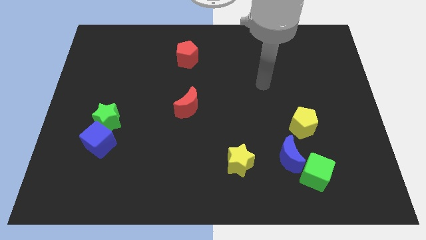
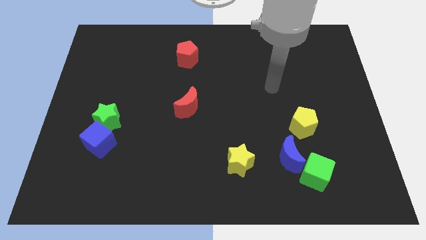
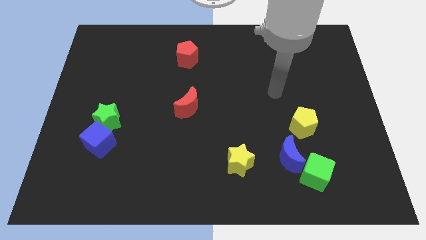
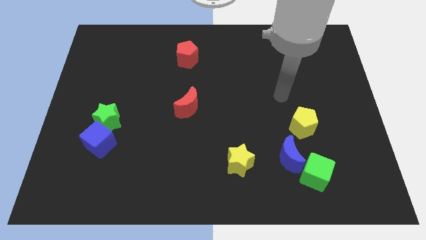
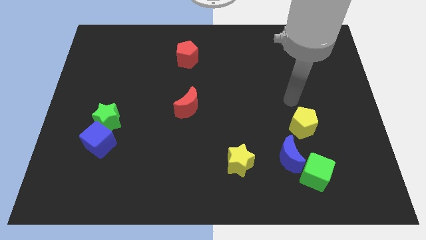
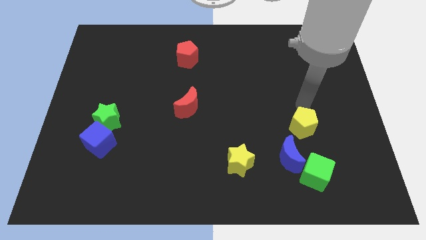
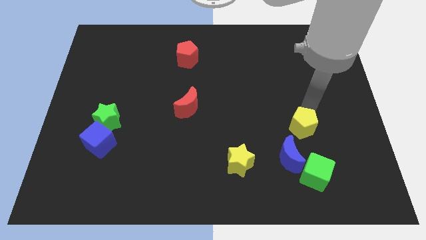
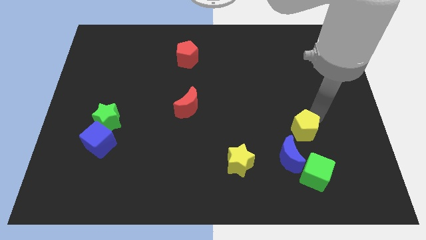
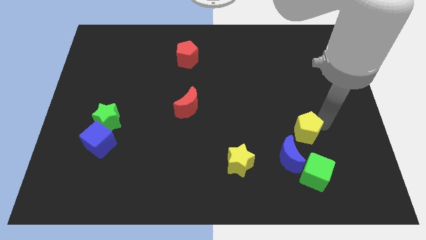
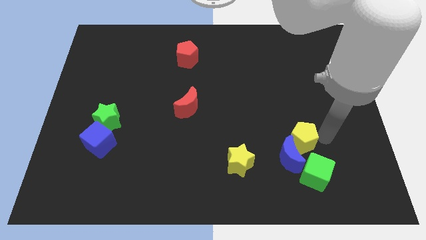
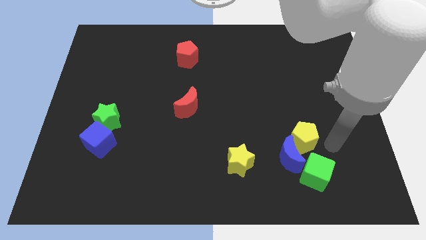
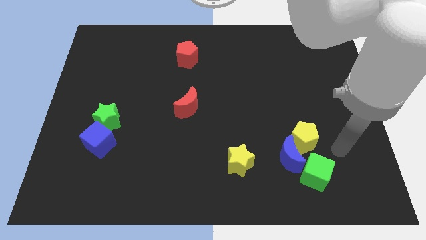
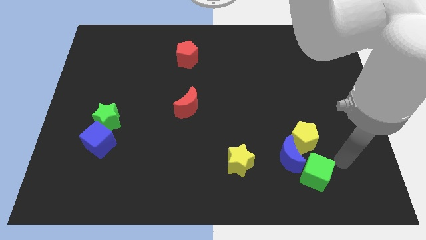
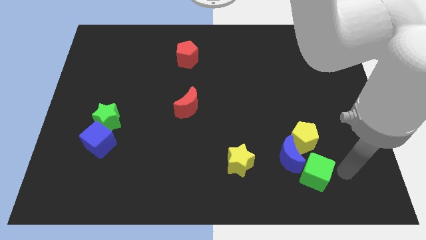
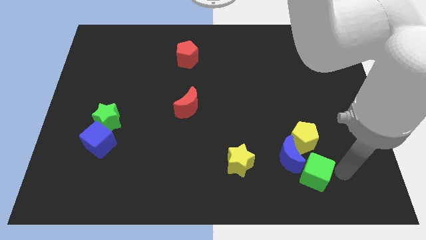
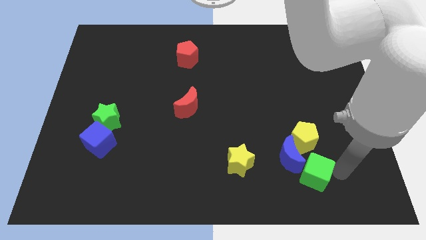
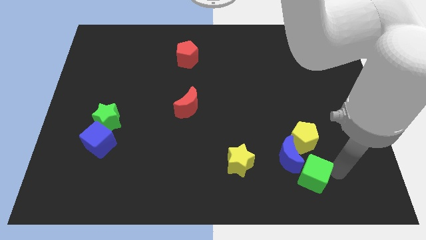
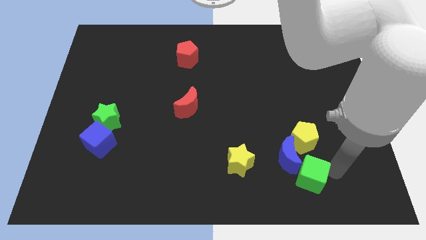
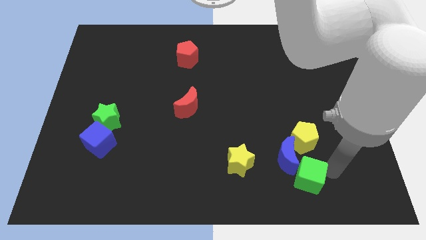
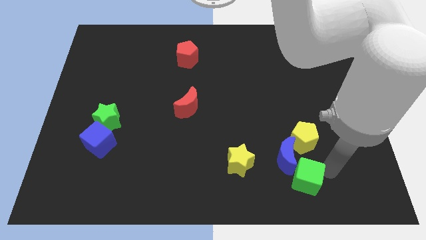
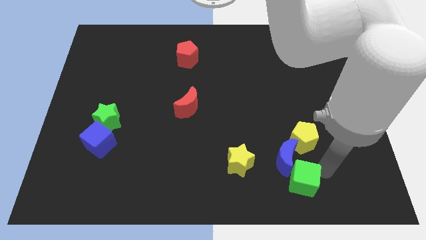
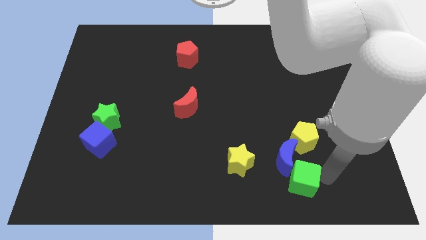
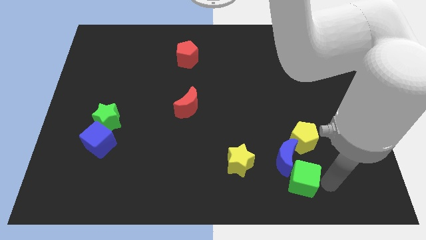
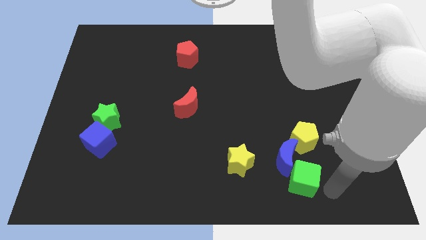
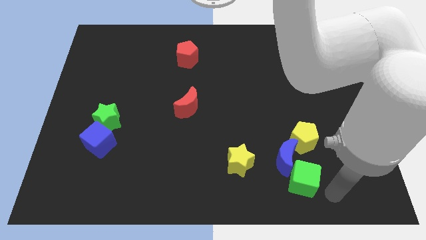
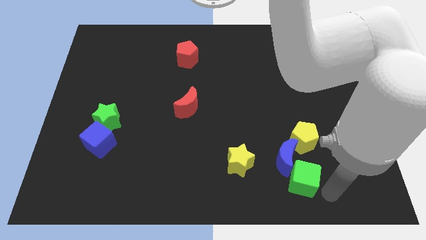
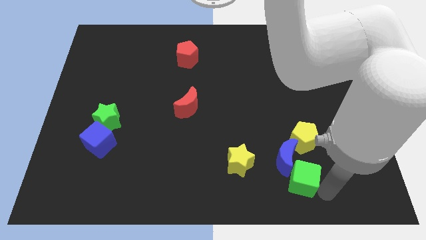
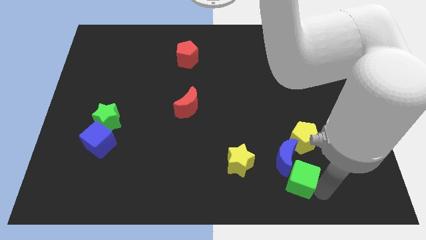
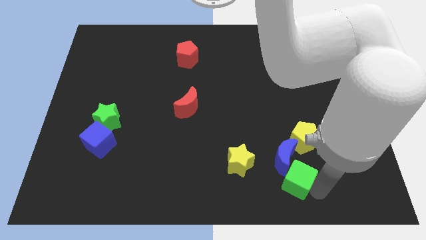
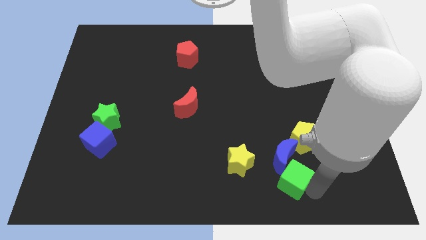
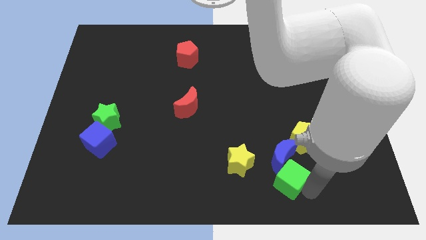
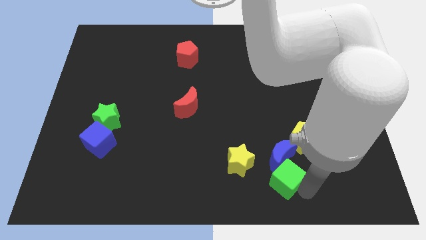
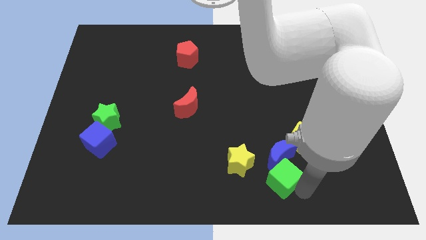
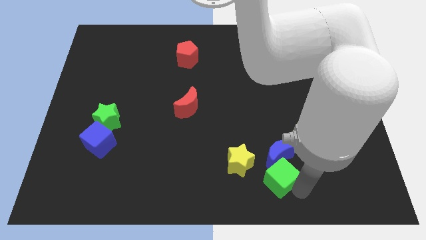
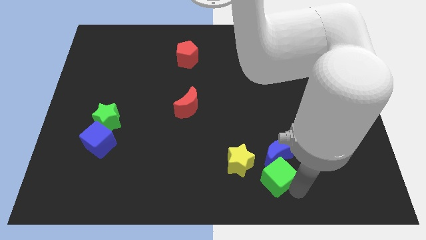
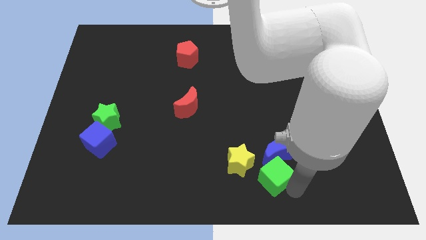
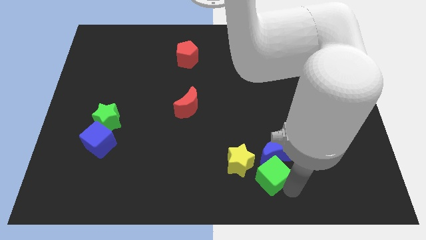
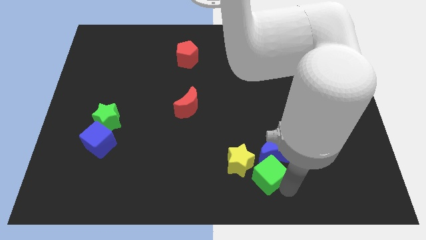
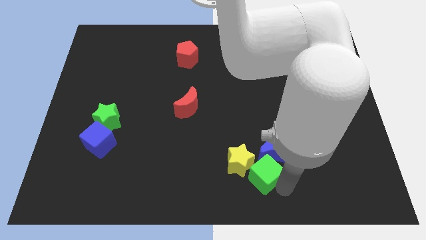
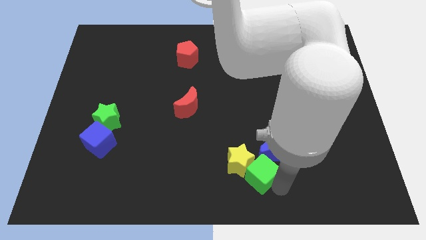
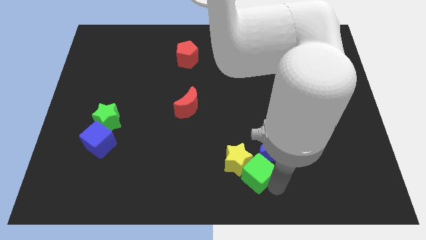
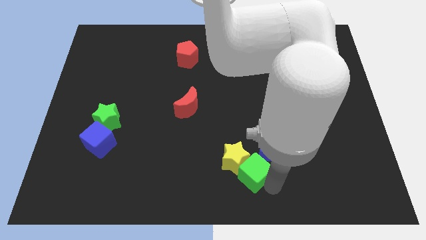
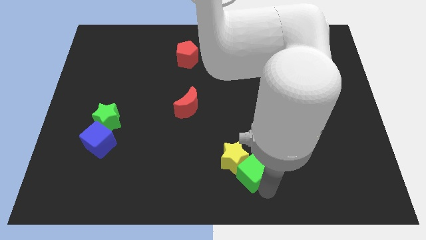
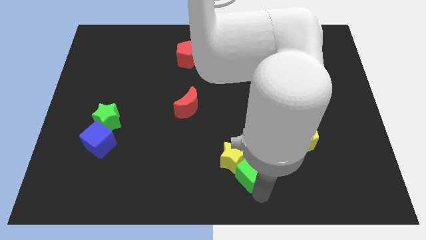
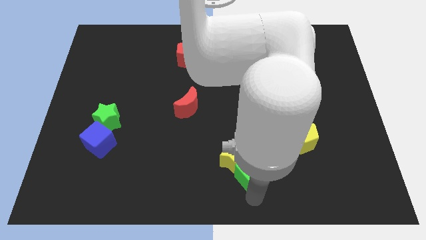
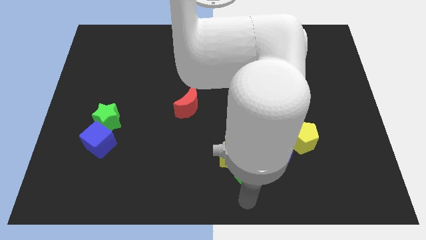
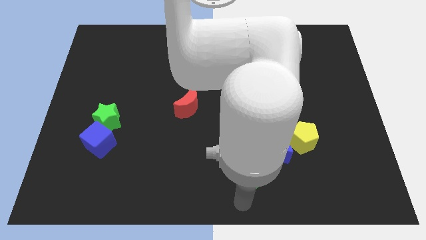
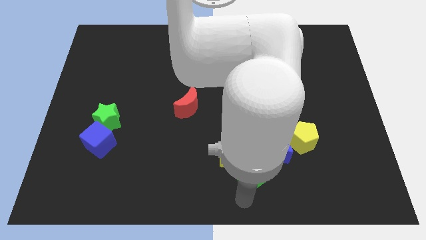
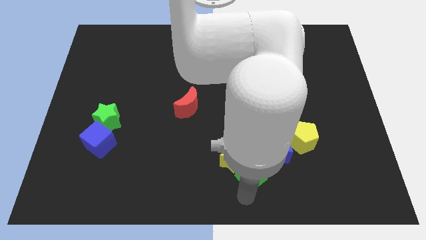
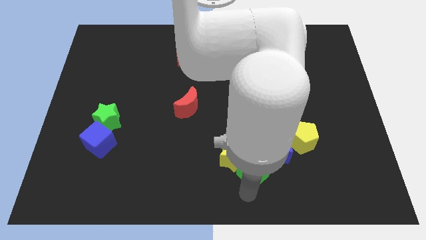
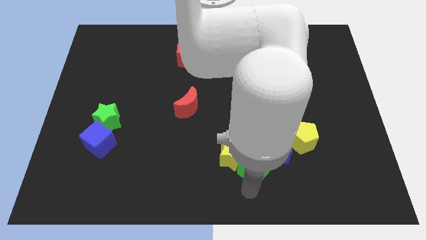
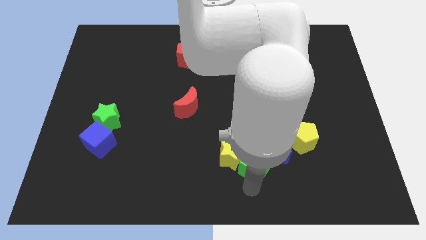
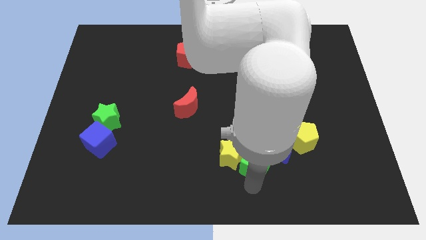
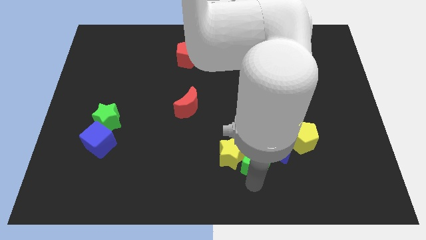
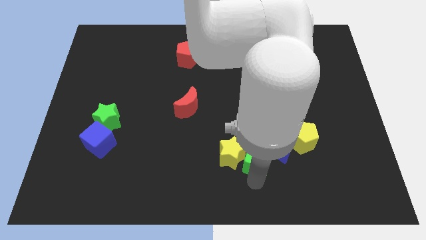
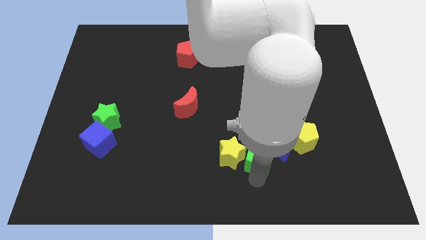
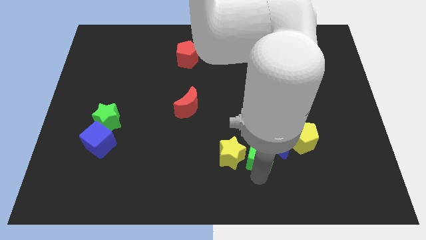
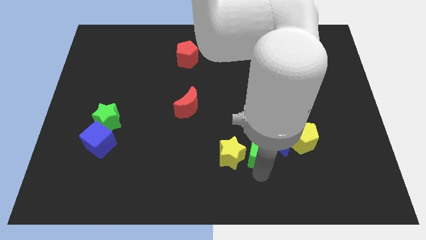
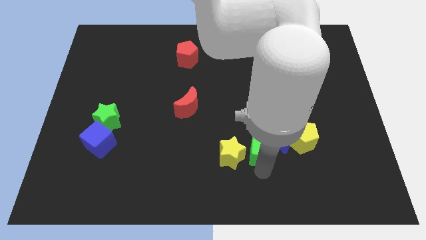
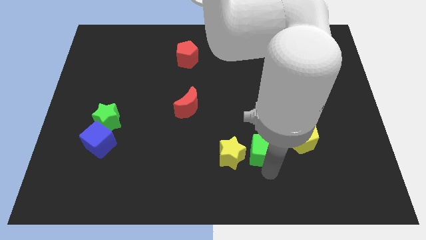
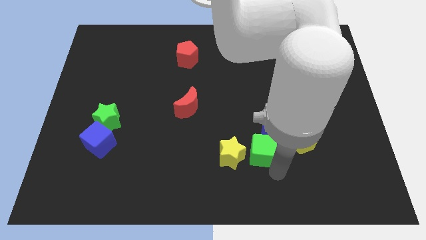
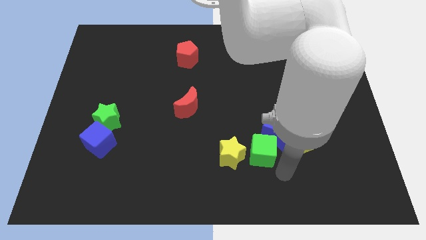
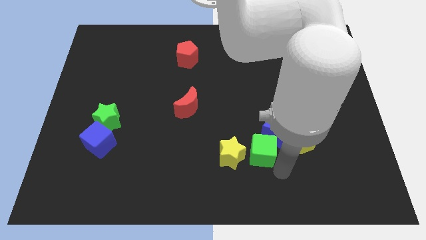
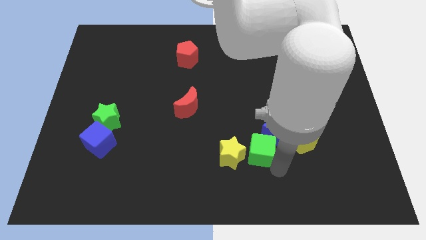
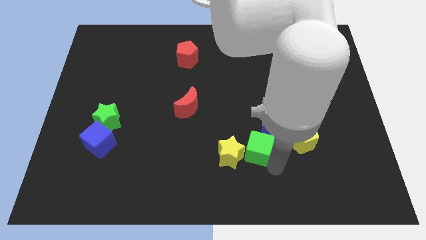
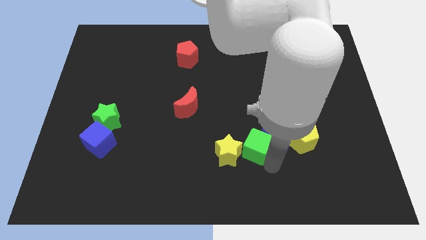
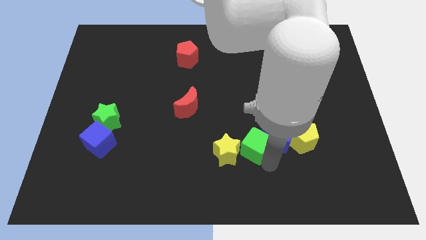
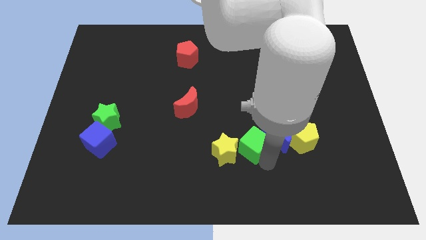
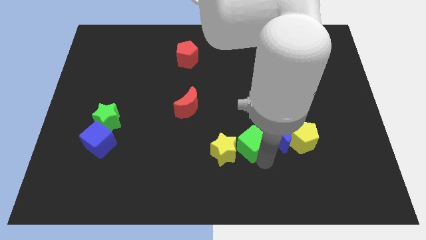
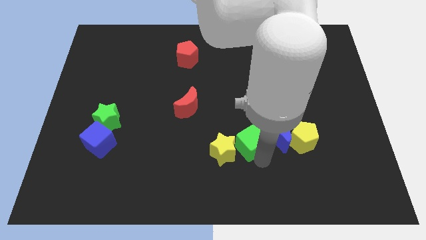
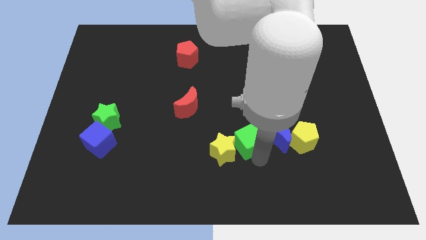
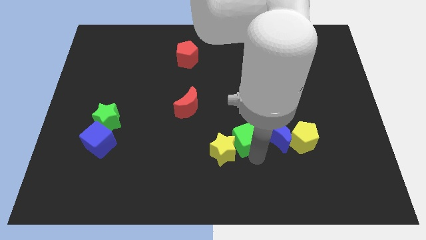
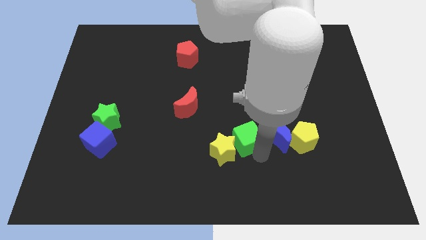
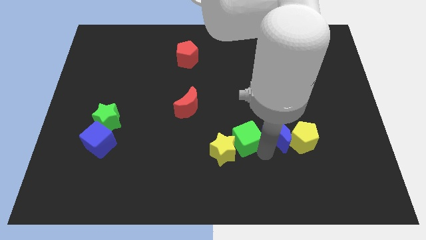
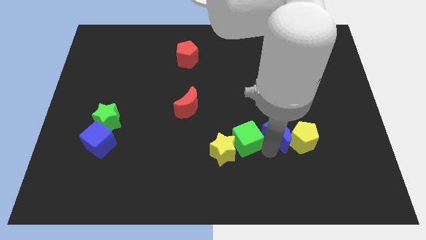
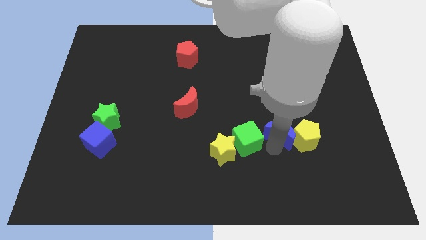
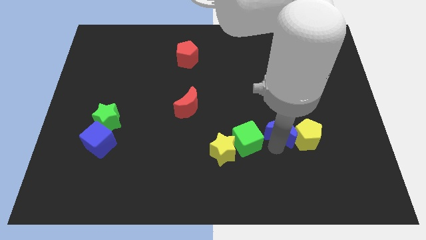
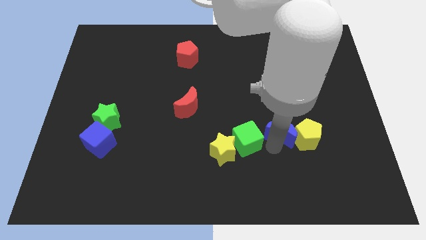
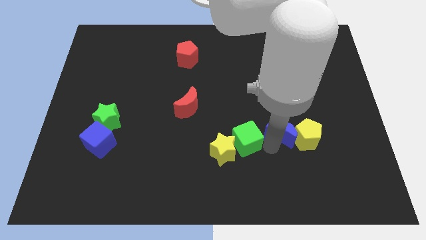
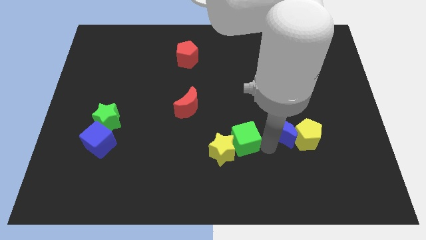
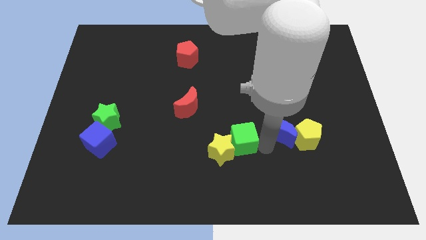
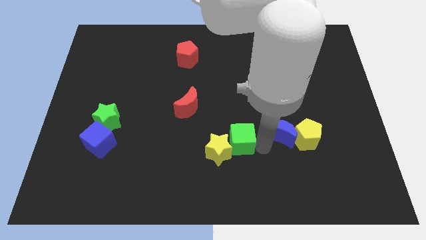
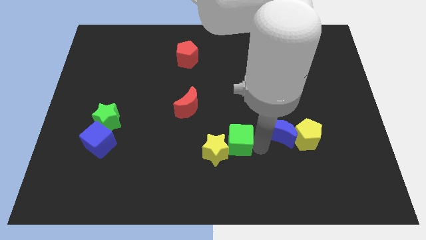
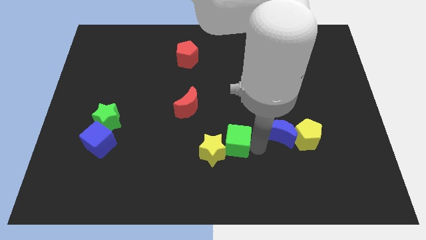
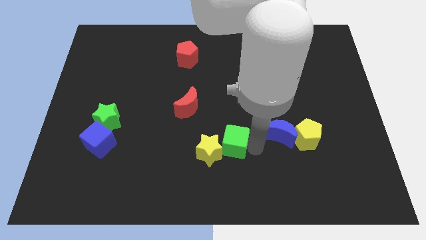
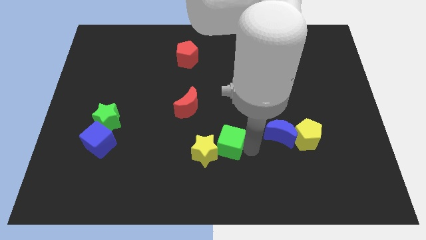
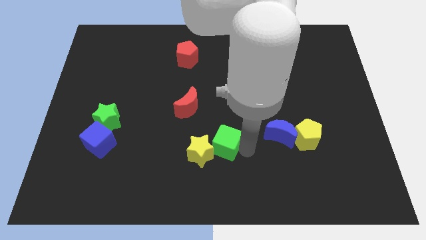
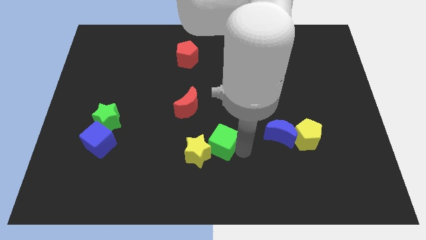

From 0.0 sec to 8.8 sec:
put the green cube to the center of the board

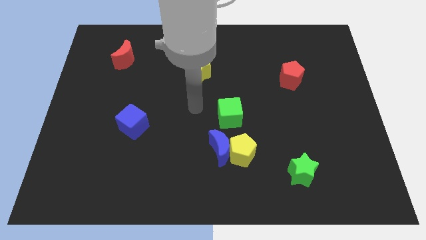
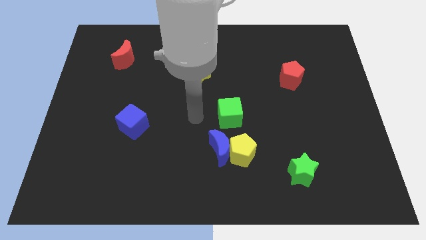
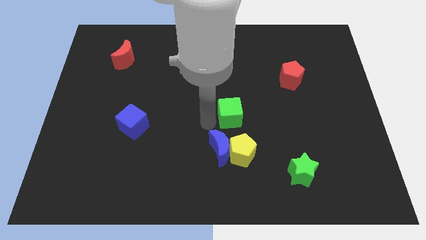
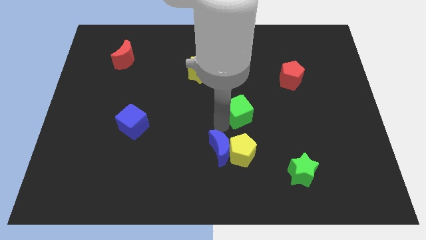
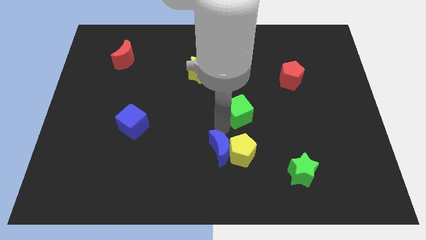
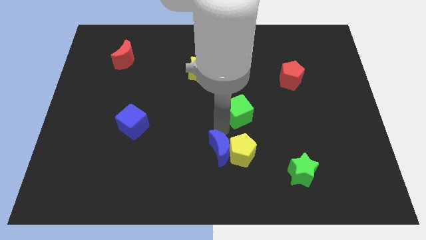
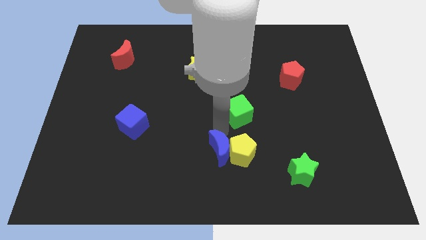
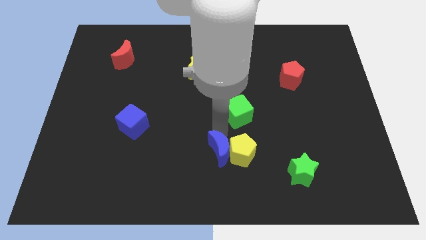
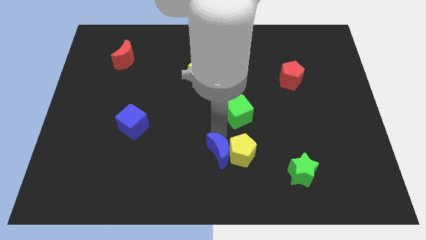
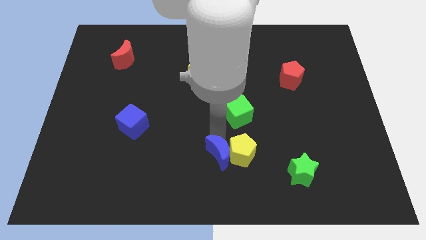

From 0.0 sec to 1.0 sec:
push the blue moon to the bottom
